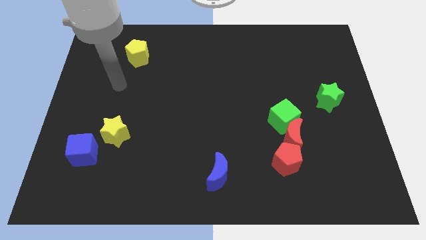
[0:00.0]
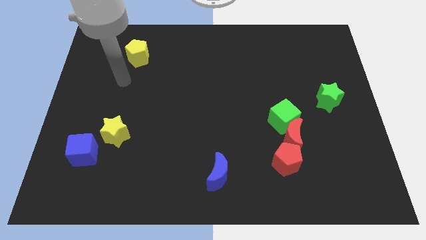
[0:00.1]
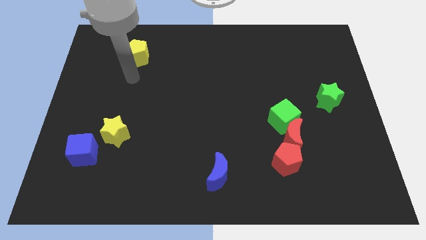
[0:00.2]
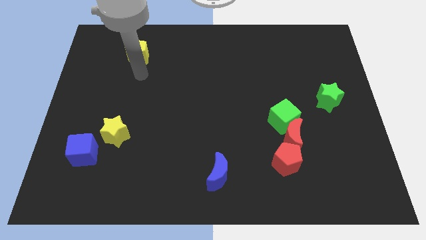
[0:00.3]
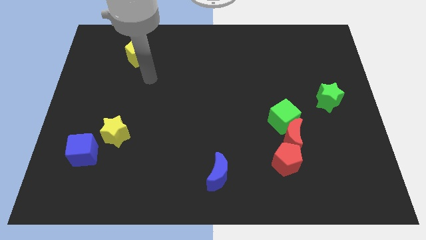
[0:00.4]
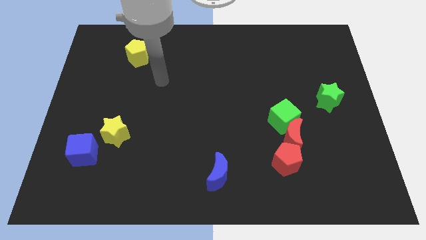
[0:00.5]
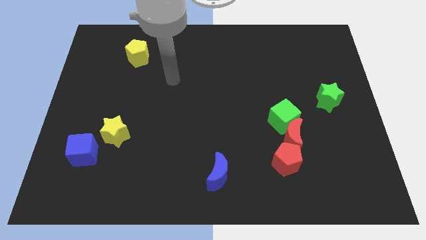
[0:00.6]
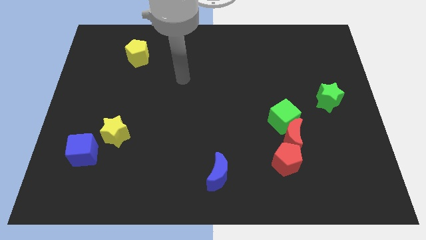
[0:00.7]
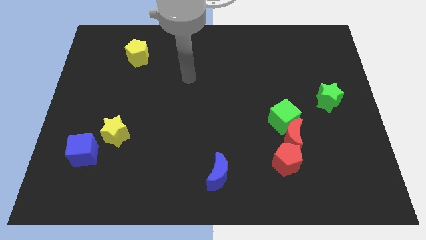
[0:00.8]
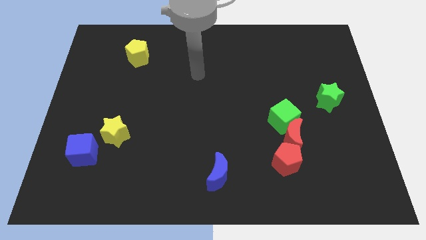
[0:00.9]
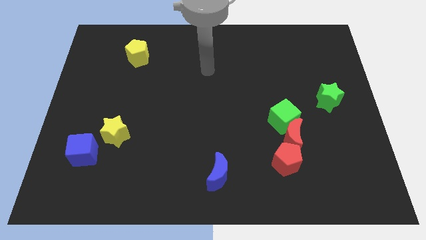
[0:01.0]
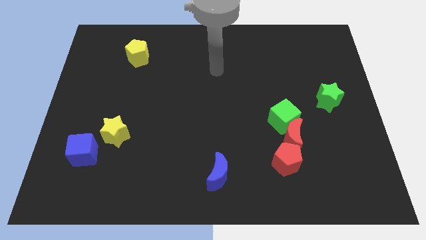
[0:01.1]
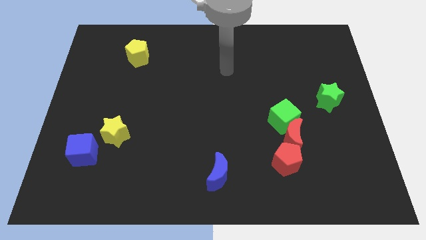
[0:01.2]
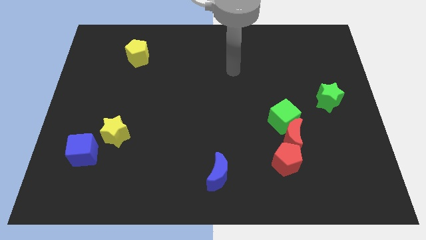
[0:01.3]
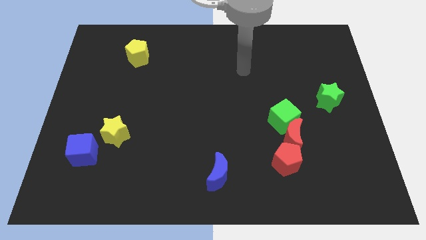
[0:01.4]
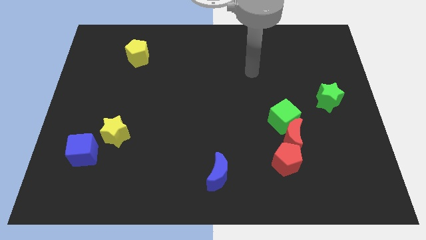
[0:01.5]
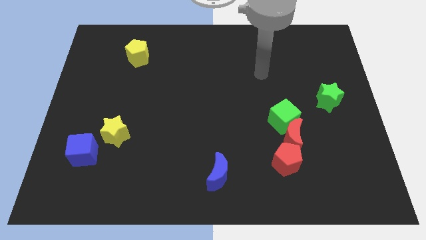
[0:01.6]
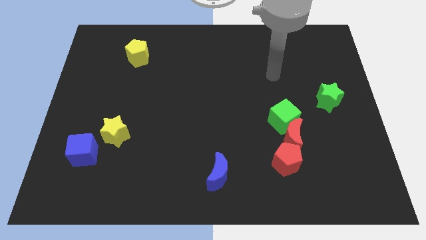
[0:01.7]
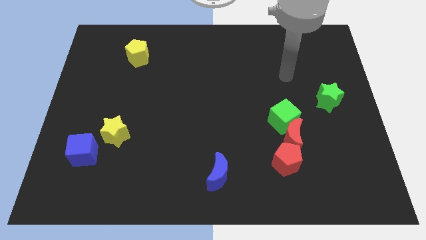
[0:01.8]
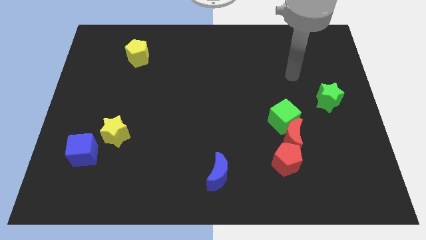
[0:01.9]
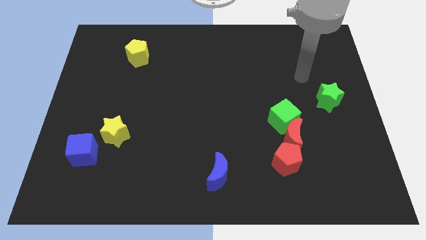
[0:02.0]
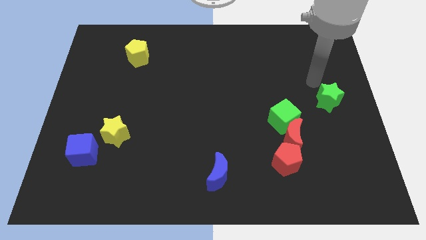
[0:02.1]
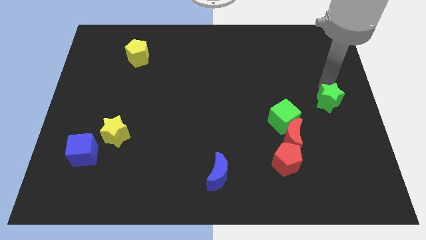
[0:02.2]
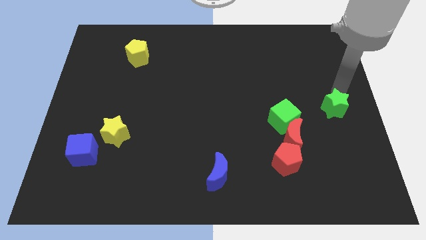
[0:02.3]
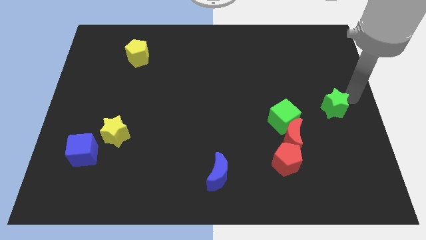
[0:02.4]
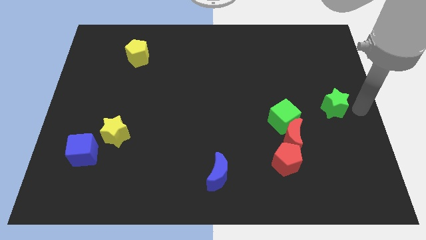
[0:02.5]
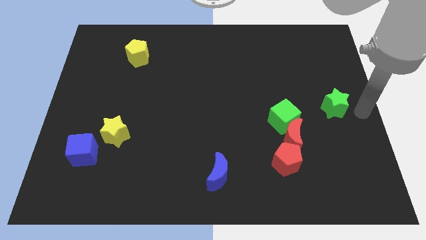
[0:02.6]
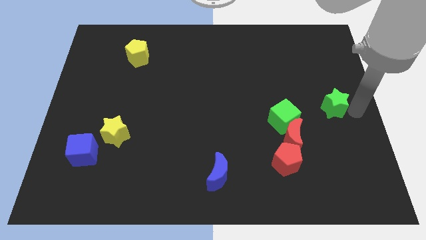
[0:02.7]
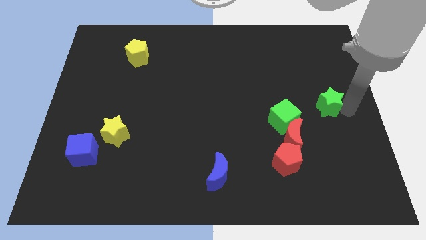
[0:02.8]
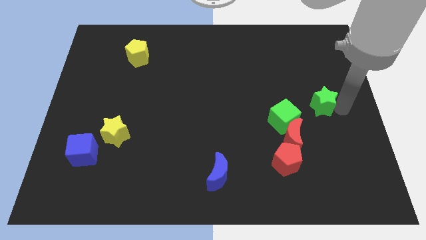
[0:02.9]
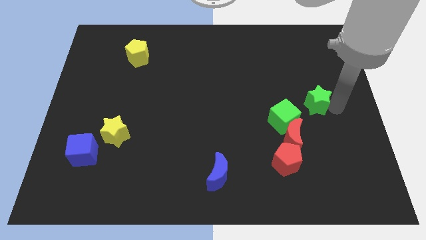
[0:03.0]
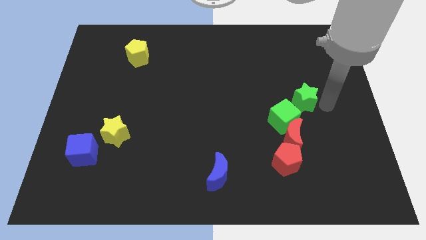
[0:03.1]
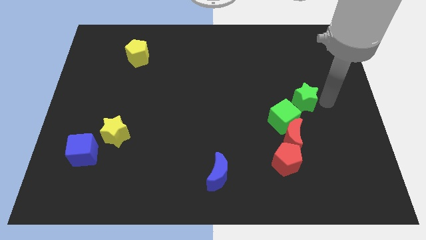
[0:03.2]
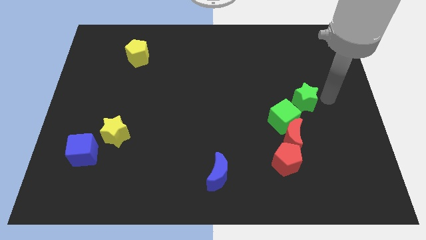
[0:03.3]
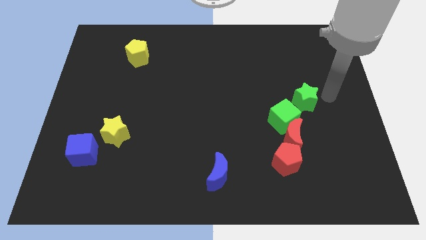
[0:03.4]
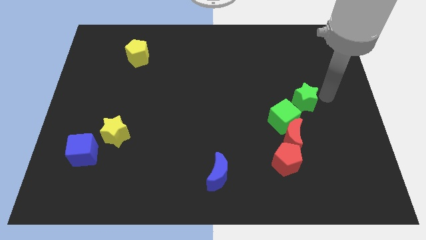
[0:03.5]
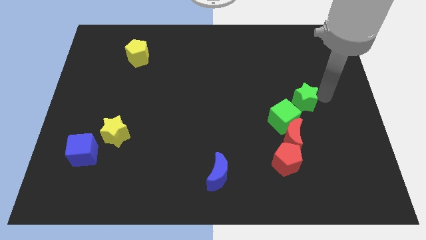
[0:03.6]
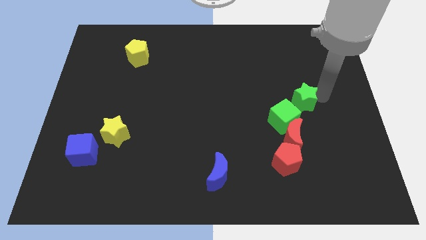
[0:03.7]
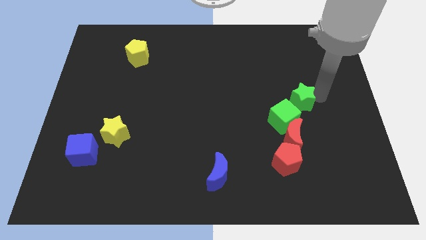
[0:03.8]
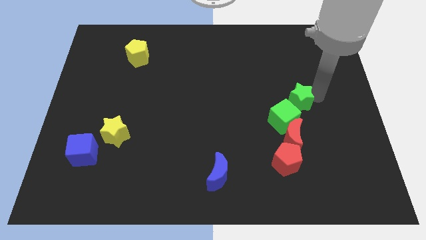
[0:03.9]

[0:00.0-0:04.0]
move the green star a bit left

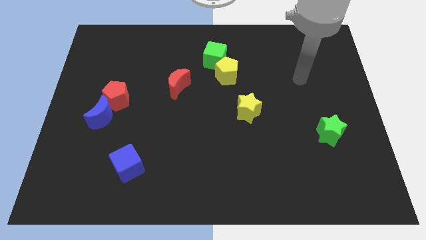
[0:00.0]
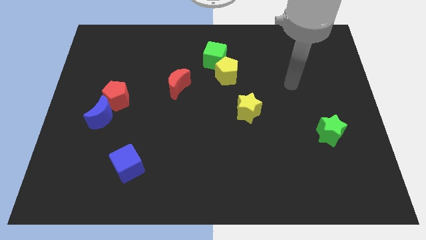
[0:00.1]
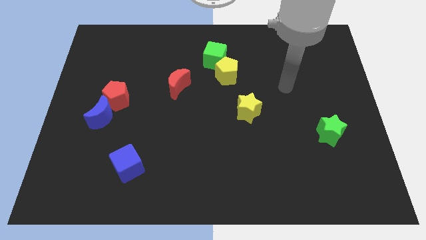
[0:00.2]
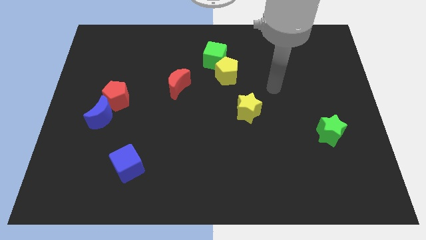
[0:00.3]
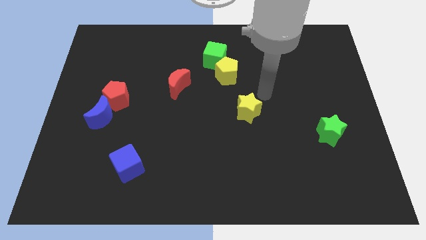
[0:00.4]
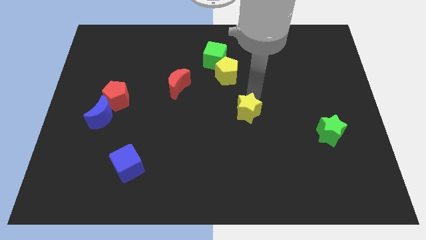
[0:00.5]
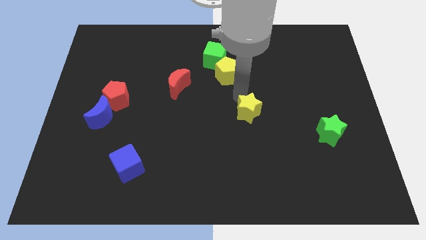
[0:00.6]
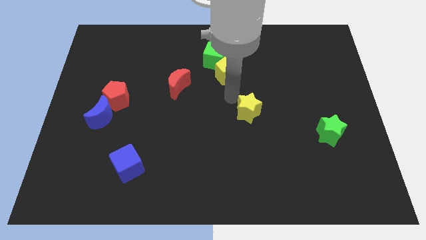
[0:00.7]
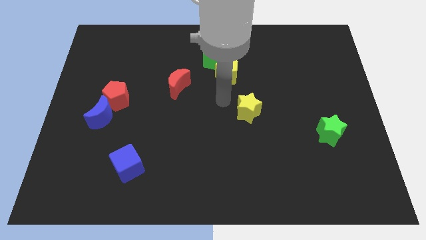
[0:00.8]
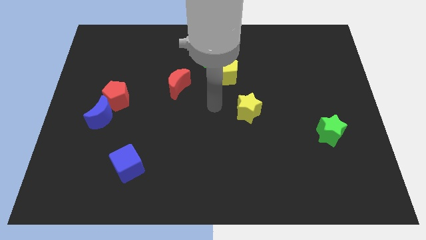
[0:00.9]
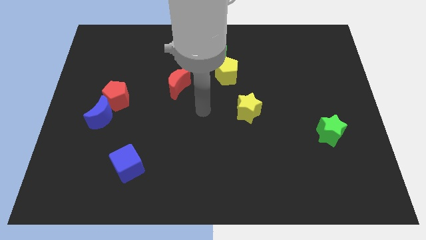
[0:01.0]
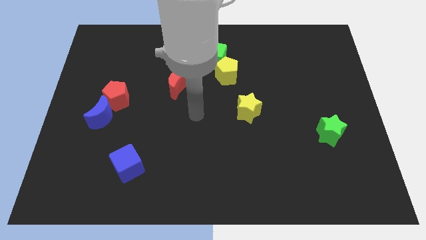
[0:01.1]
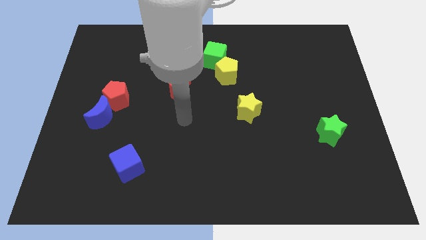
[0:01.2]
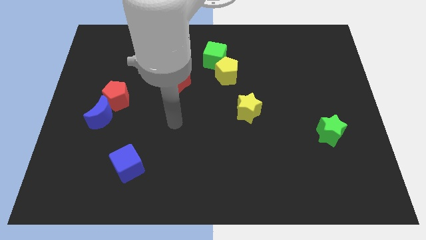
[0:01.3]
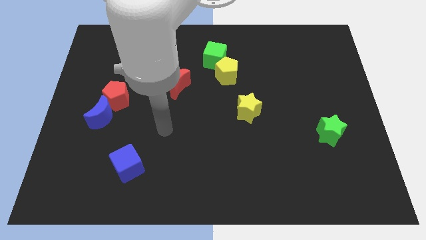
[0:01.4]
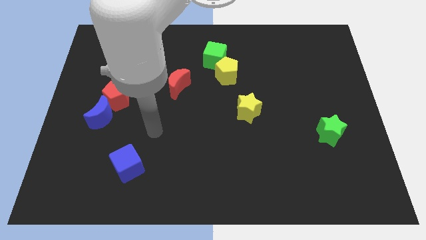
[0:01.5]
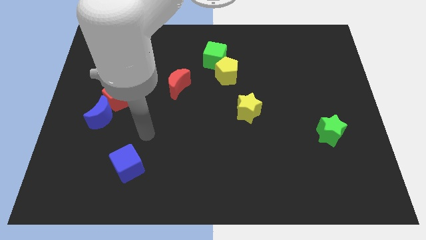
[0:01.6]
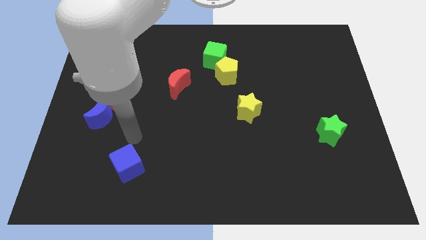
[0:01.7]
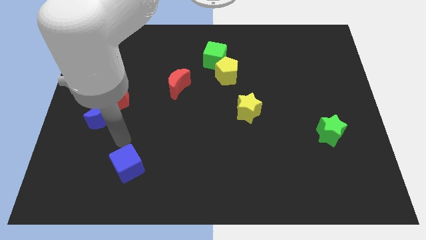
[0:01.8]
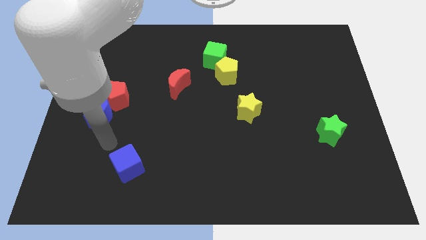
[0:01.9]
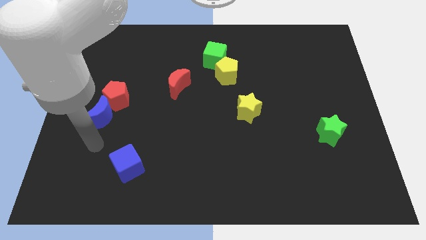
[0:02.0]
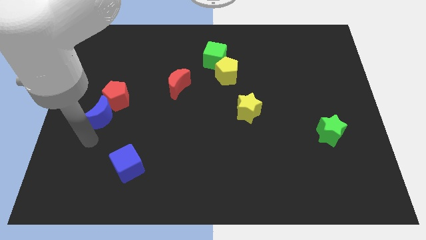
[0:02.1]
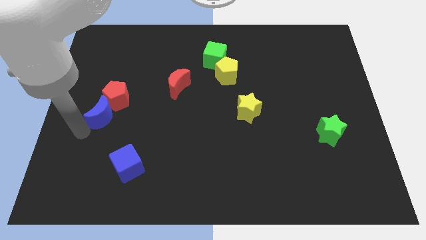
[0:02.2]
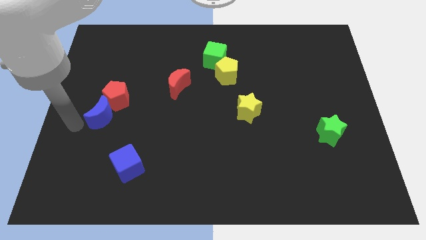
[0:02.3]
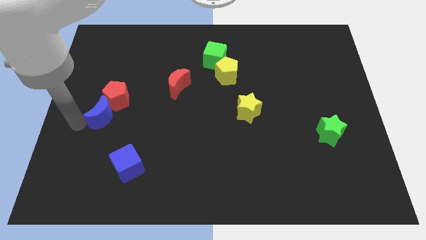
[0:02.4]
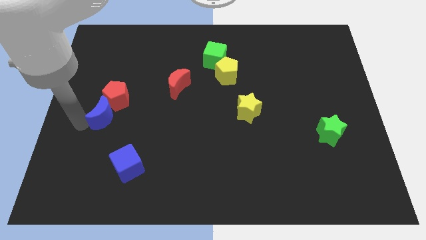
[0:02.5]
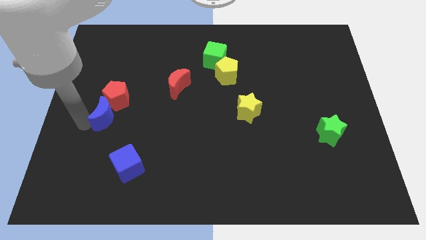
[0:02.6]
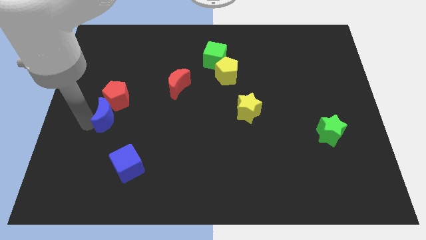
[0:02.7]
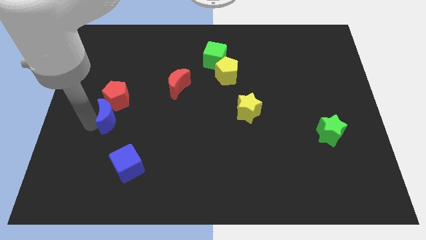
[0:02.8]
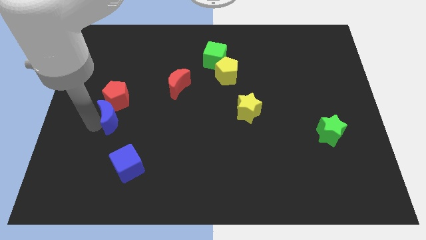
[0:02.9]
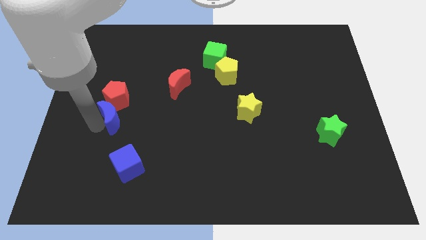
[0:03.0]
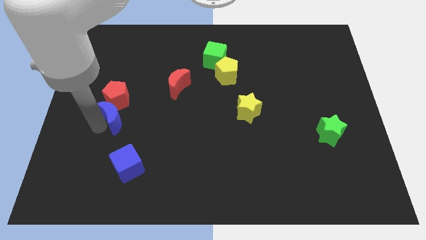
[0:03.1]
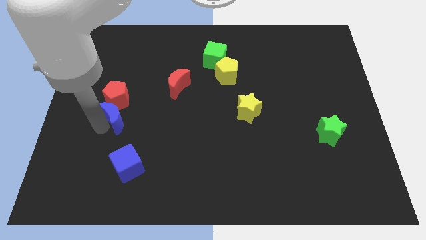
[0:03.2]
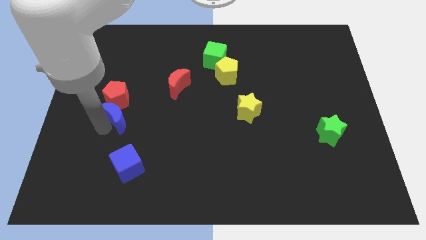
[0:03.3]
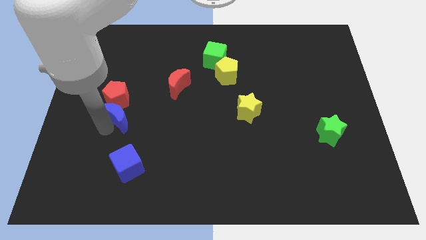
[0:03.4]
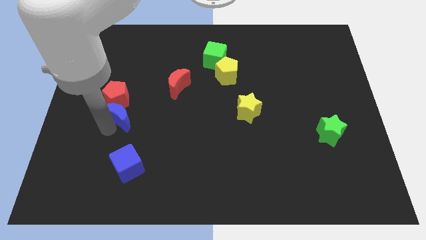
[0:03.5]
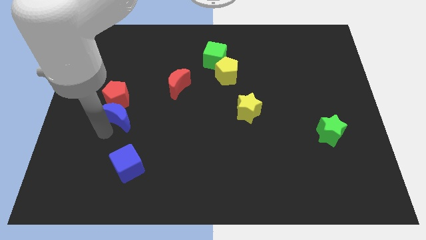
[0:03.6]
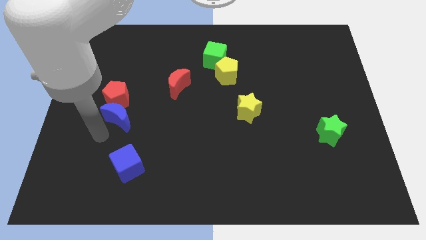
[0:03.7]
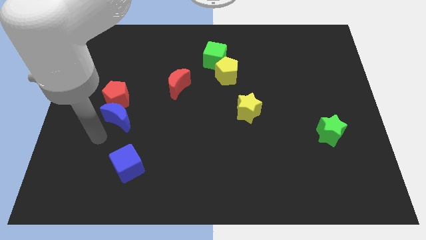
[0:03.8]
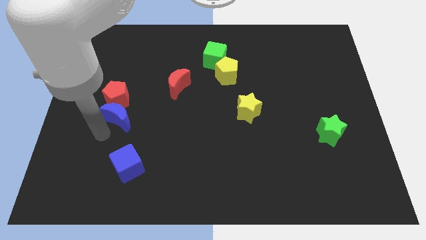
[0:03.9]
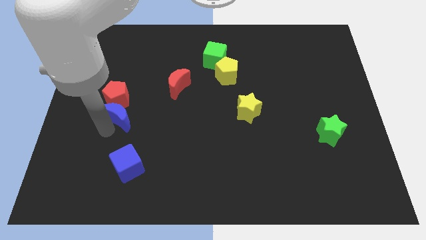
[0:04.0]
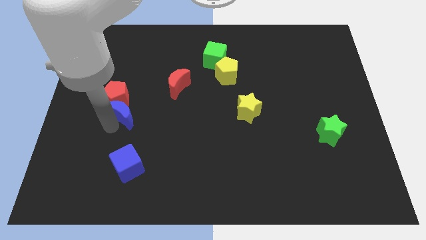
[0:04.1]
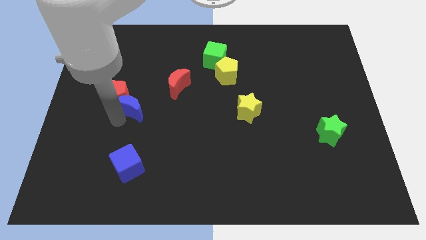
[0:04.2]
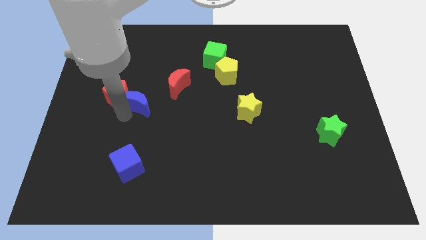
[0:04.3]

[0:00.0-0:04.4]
slightly move the blue moon diagonally upwards and to the right
